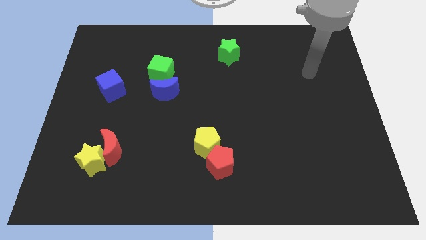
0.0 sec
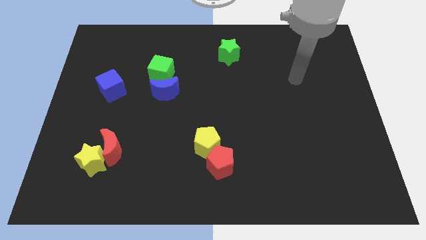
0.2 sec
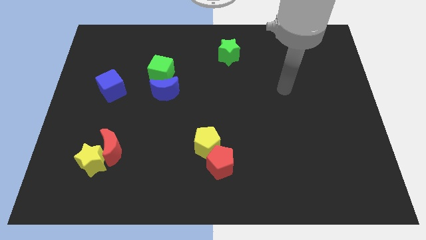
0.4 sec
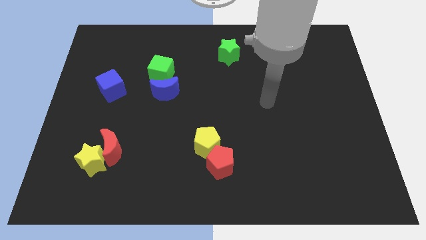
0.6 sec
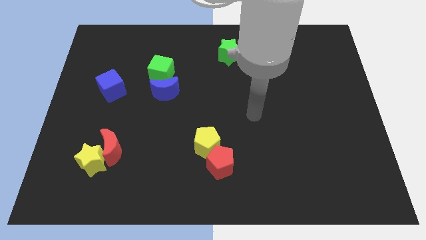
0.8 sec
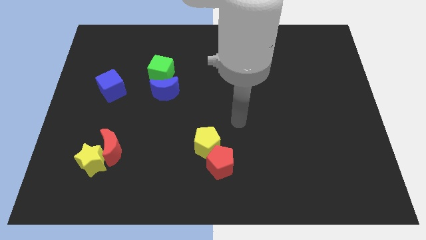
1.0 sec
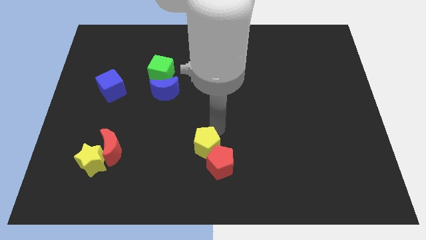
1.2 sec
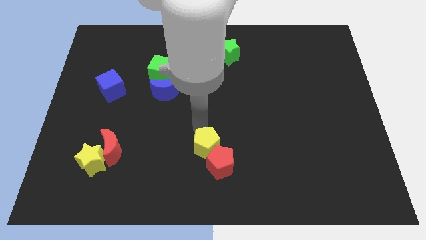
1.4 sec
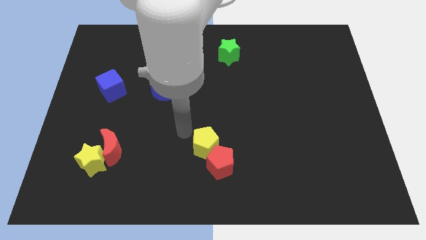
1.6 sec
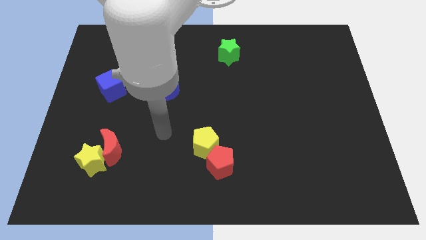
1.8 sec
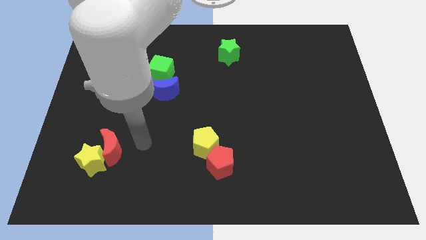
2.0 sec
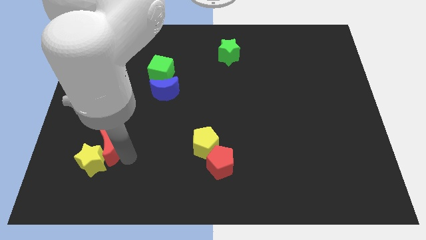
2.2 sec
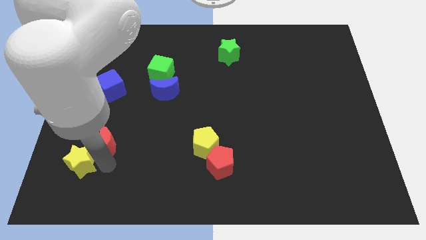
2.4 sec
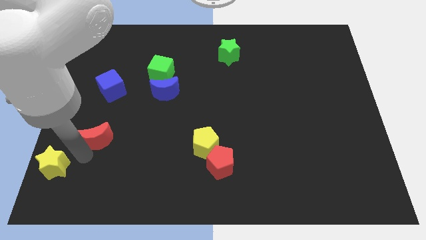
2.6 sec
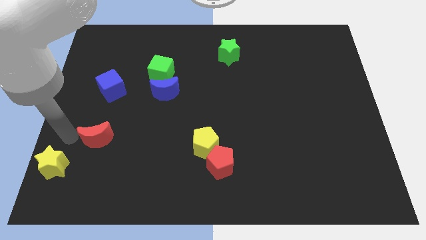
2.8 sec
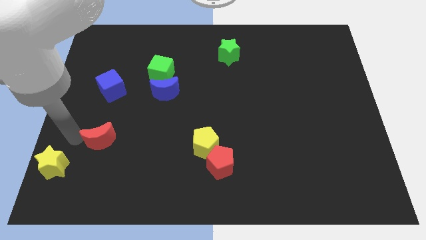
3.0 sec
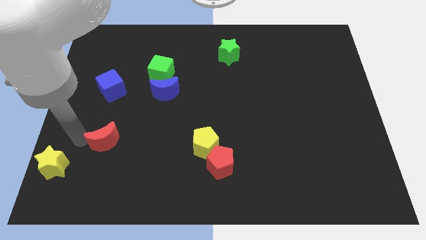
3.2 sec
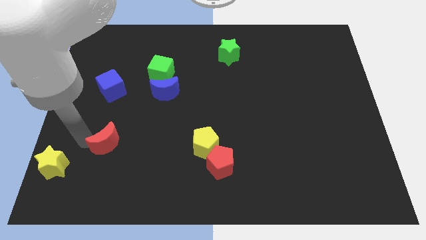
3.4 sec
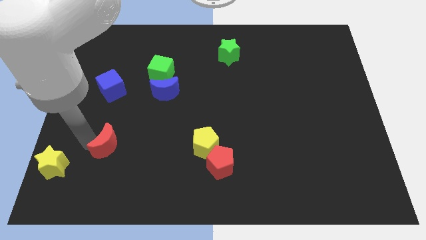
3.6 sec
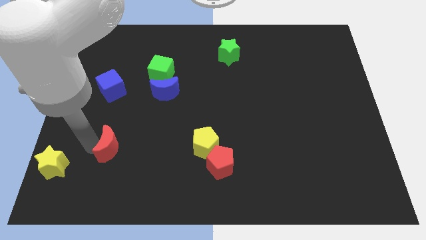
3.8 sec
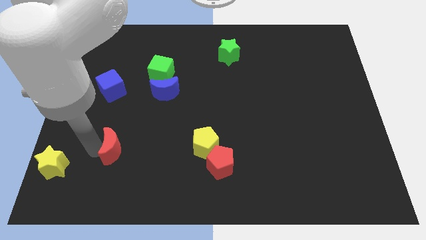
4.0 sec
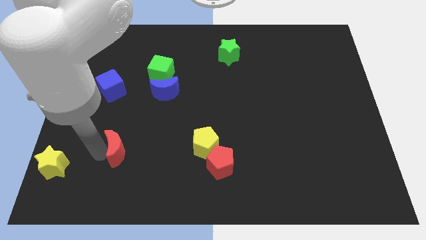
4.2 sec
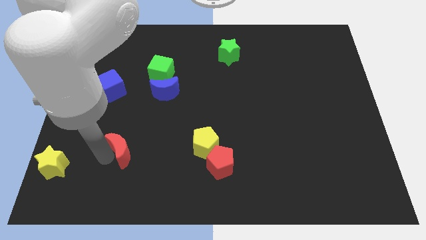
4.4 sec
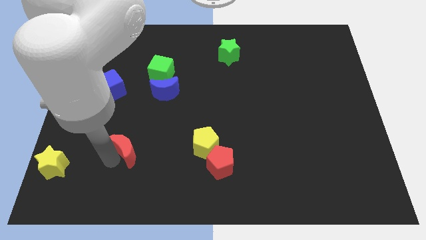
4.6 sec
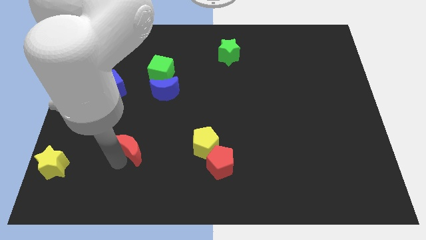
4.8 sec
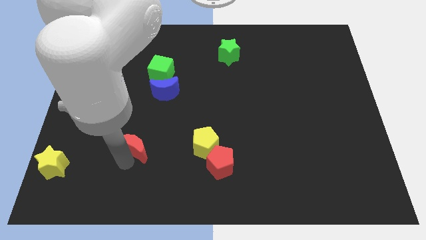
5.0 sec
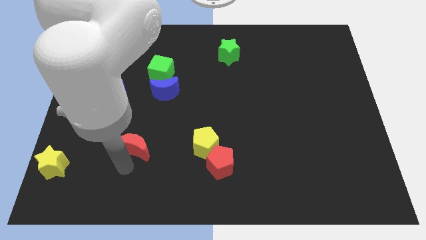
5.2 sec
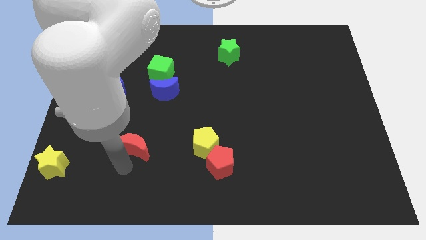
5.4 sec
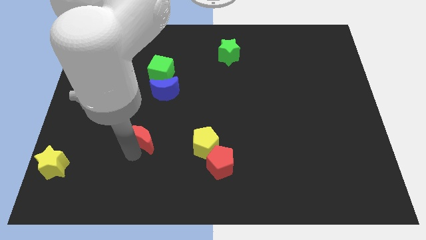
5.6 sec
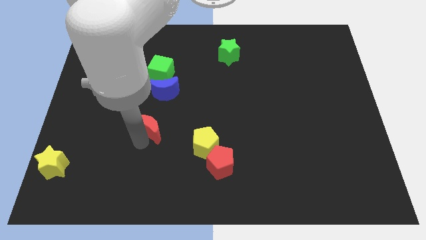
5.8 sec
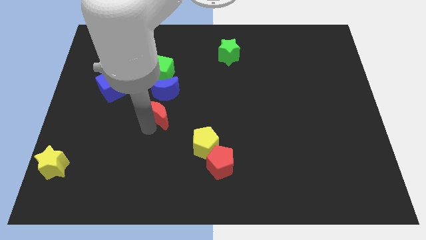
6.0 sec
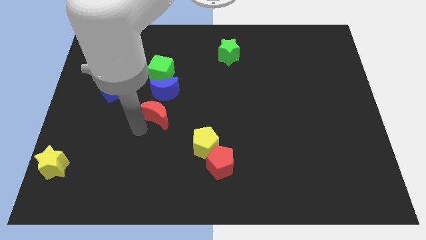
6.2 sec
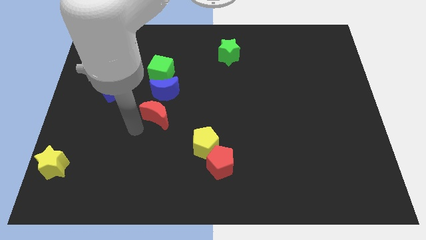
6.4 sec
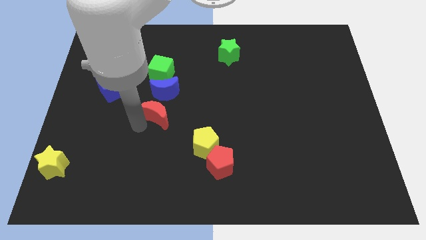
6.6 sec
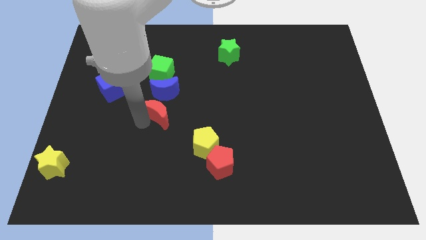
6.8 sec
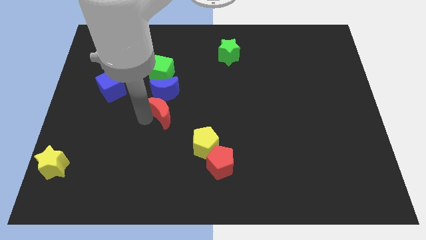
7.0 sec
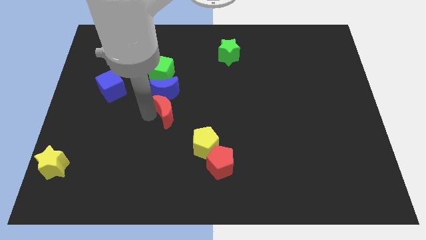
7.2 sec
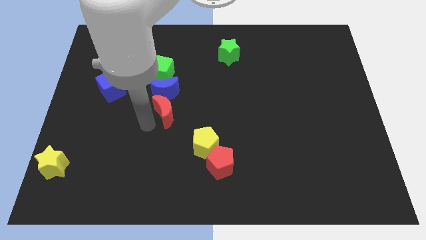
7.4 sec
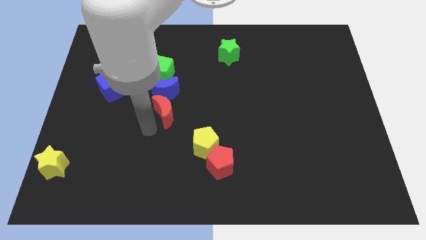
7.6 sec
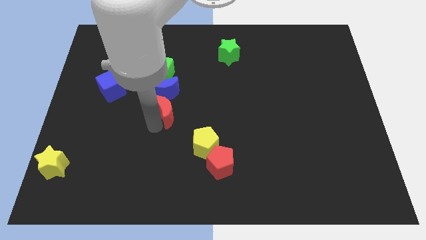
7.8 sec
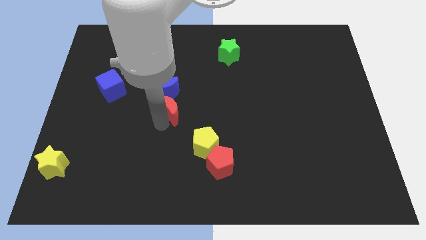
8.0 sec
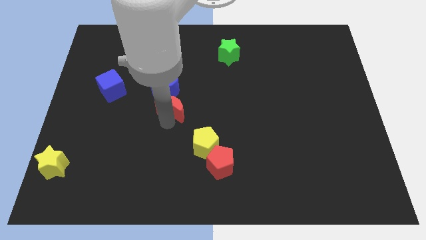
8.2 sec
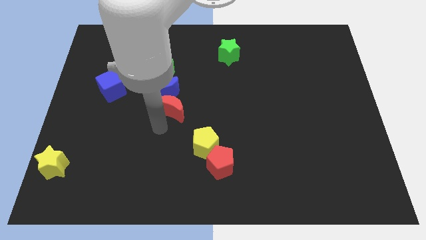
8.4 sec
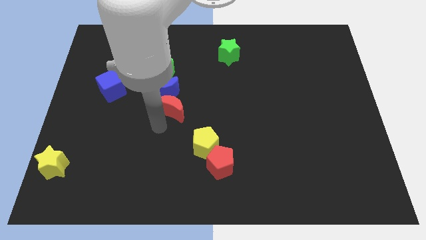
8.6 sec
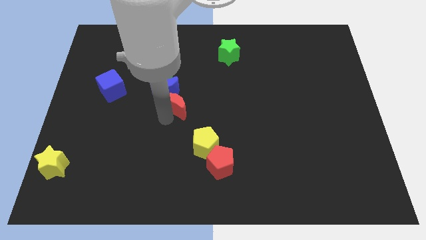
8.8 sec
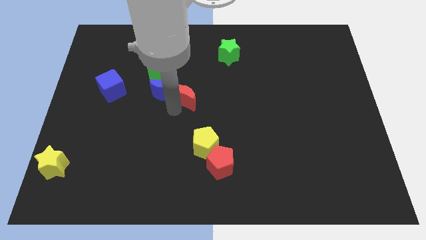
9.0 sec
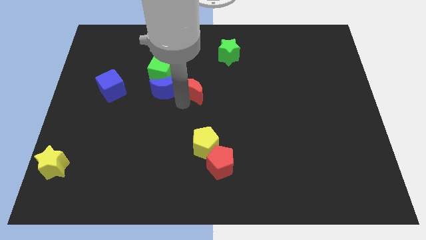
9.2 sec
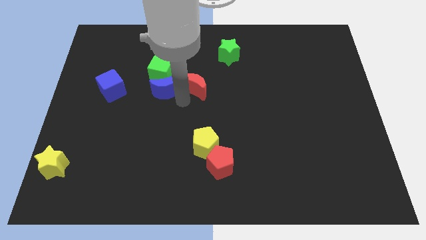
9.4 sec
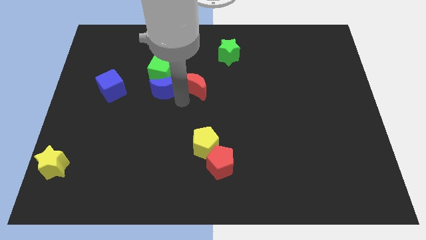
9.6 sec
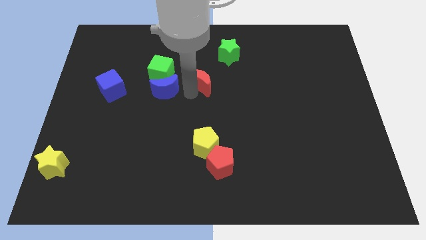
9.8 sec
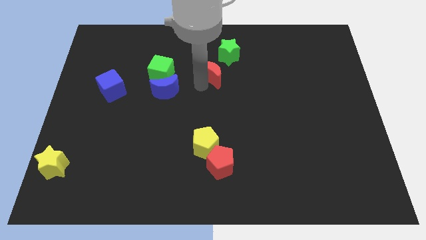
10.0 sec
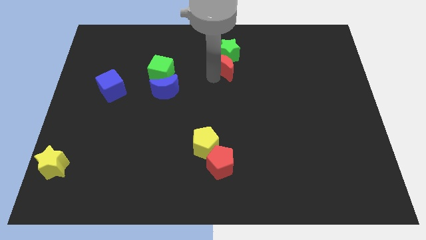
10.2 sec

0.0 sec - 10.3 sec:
push the red moon towards the green star

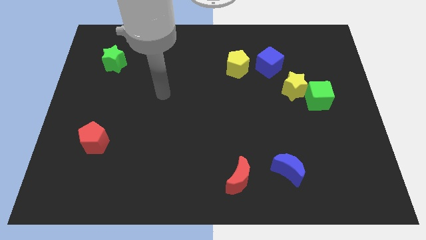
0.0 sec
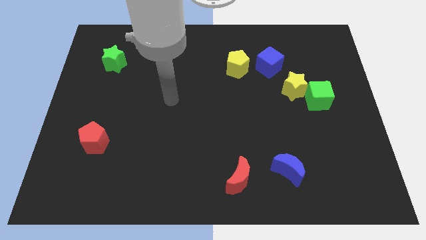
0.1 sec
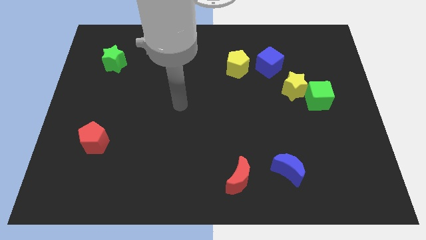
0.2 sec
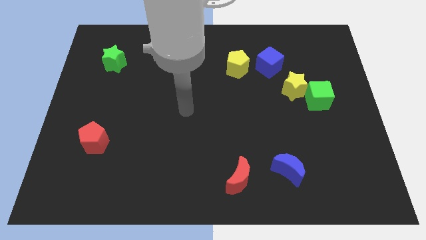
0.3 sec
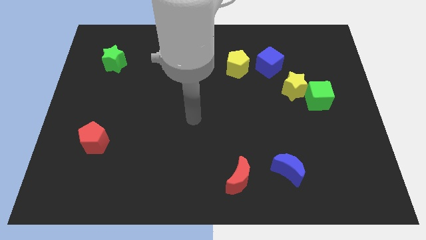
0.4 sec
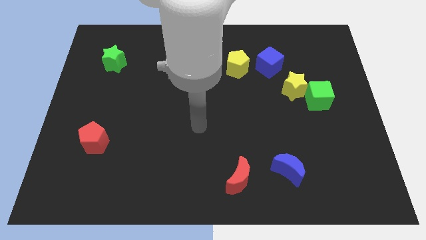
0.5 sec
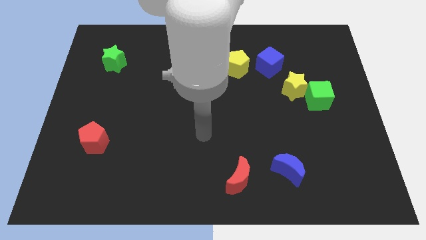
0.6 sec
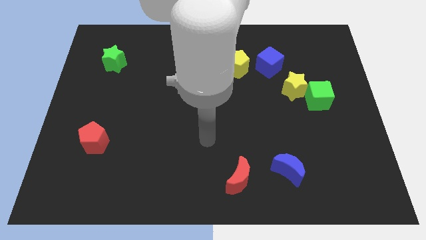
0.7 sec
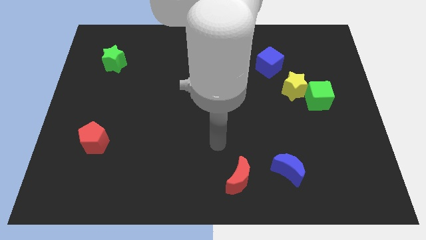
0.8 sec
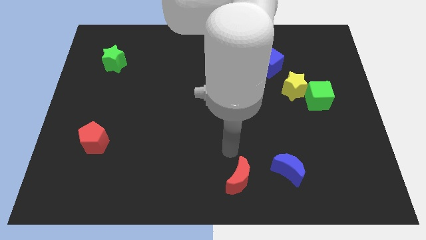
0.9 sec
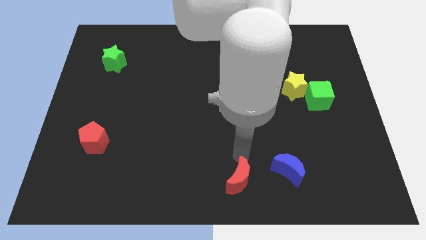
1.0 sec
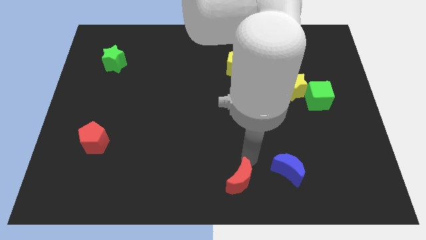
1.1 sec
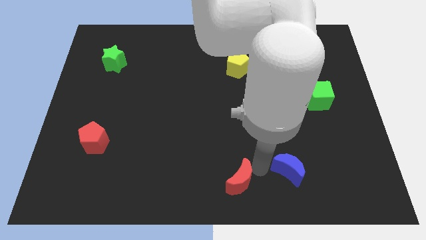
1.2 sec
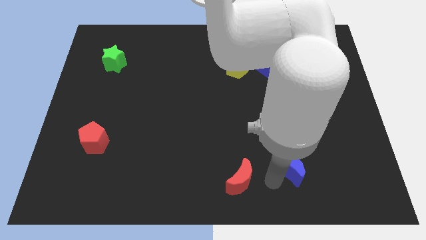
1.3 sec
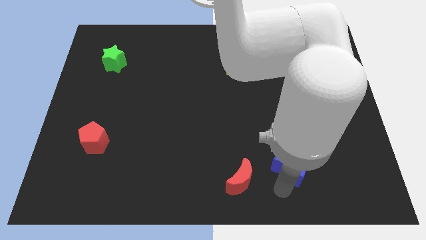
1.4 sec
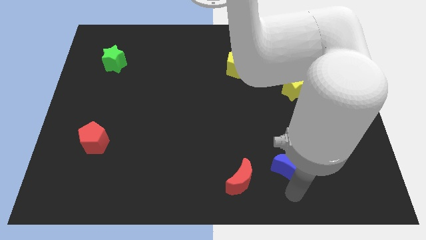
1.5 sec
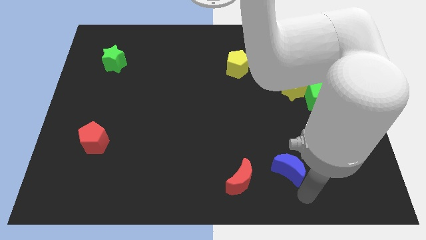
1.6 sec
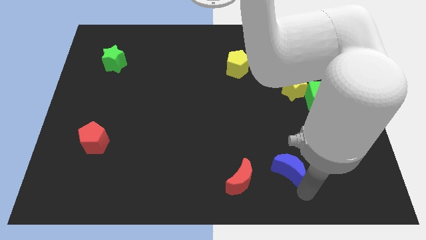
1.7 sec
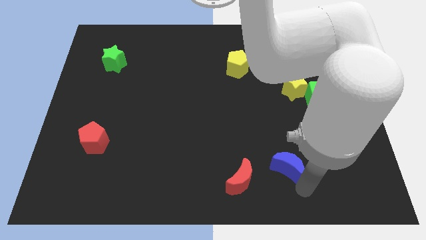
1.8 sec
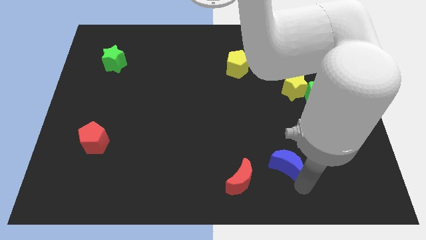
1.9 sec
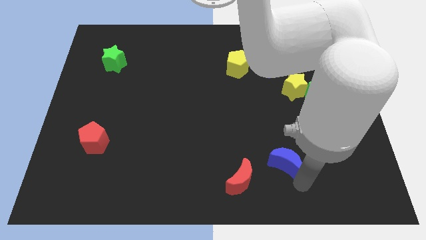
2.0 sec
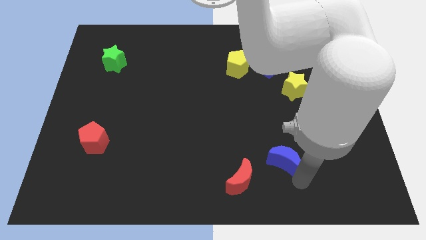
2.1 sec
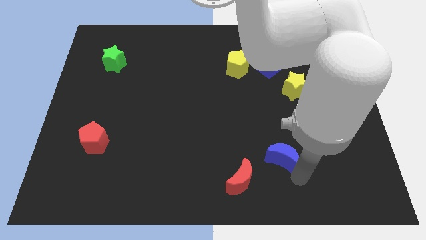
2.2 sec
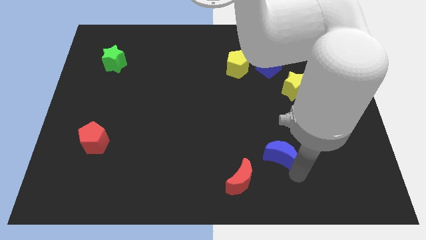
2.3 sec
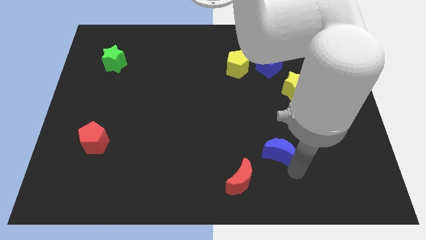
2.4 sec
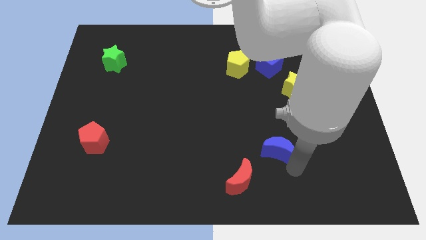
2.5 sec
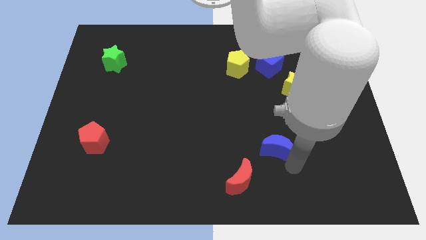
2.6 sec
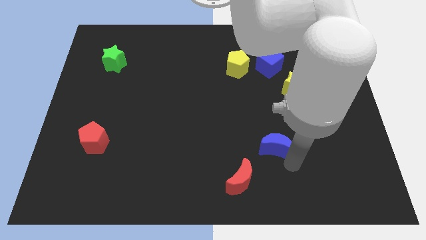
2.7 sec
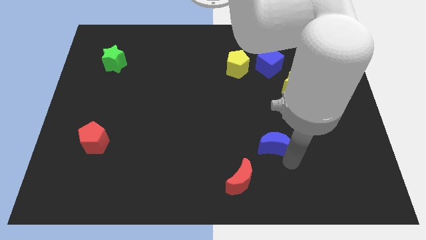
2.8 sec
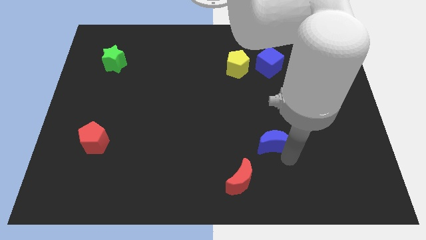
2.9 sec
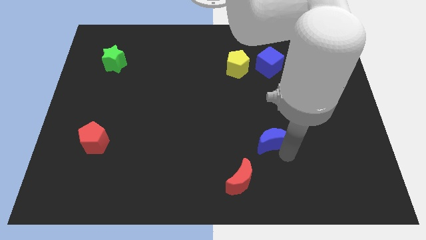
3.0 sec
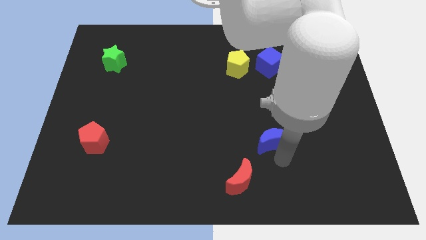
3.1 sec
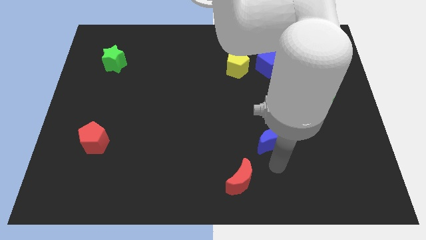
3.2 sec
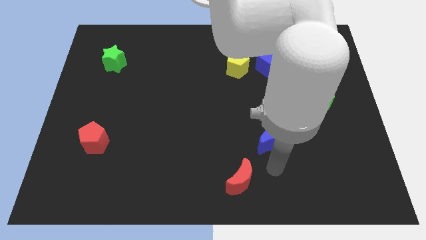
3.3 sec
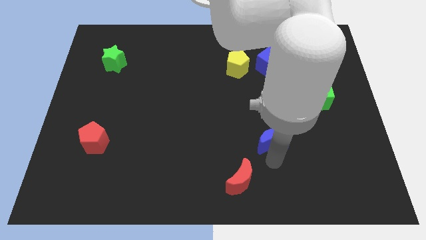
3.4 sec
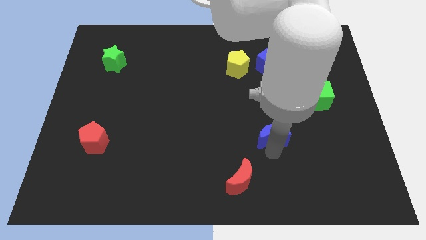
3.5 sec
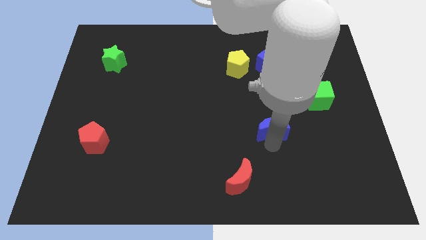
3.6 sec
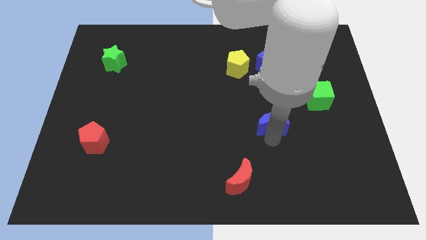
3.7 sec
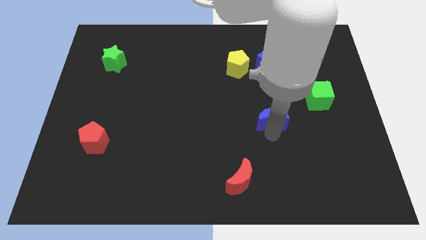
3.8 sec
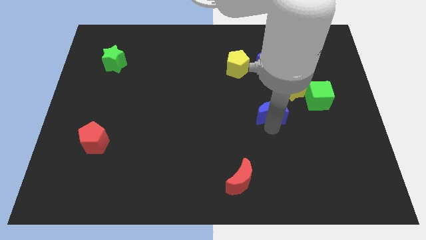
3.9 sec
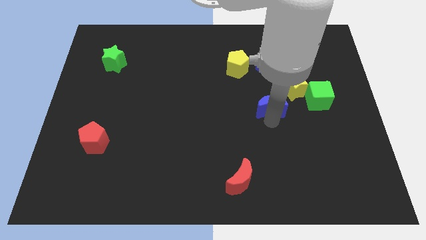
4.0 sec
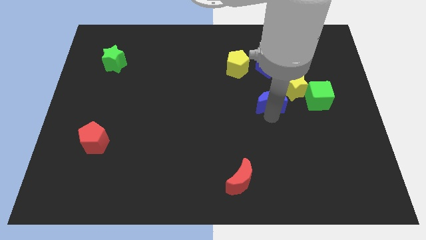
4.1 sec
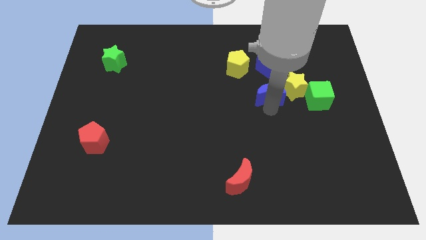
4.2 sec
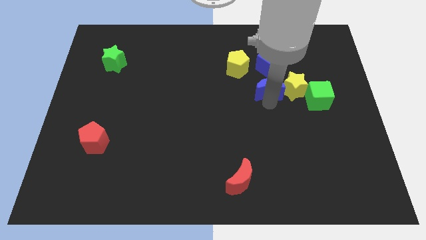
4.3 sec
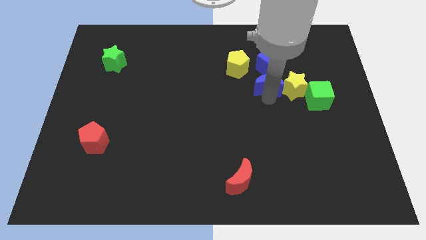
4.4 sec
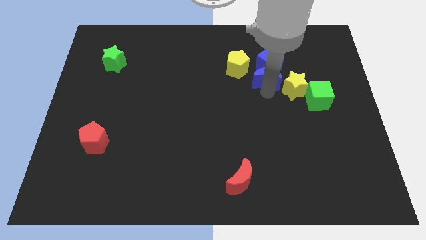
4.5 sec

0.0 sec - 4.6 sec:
move the blue moon towards the blue cube
